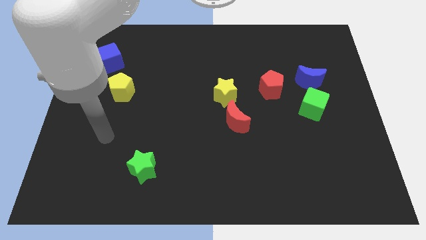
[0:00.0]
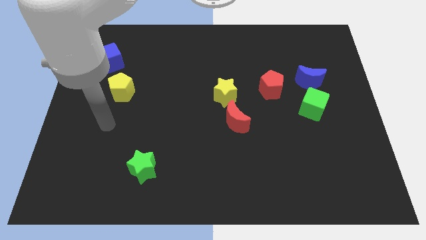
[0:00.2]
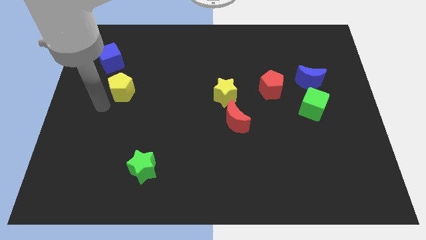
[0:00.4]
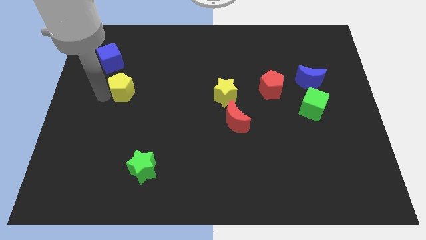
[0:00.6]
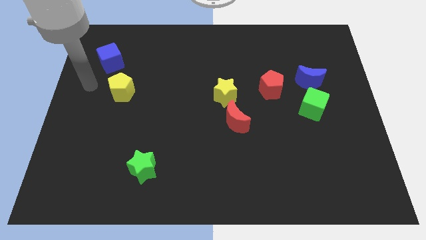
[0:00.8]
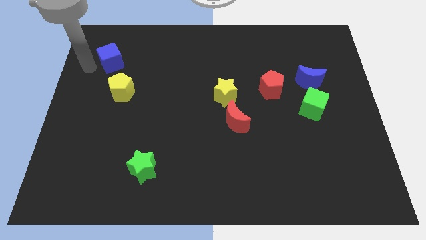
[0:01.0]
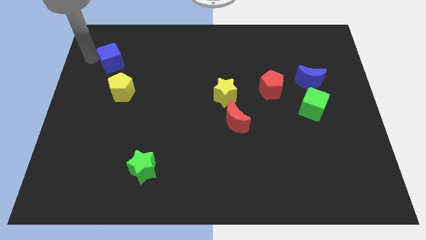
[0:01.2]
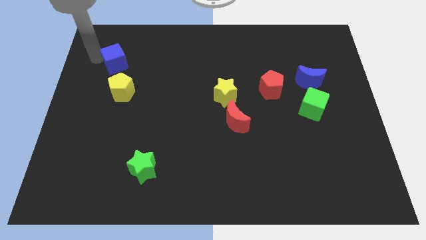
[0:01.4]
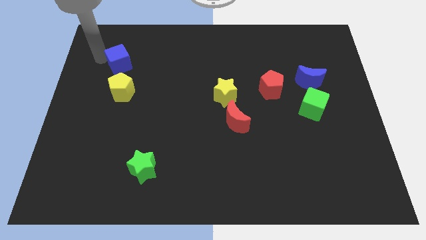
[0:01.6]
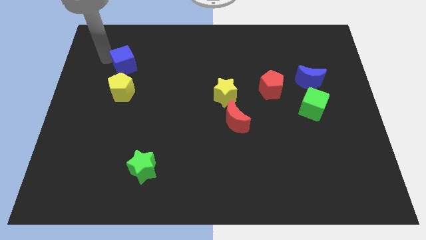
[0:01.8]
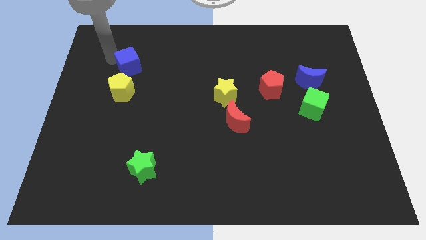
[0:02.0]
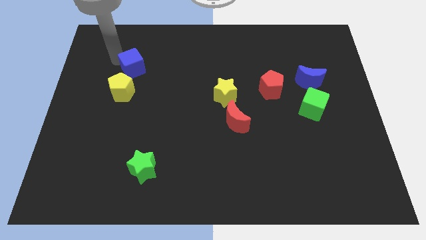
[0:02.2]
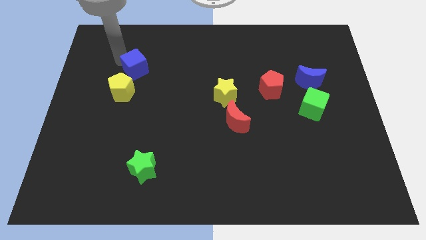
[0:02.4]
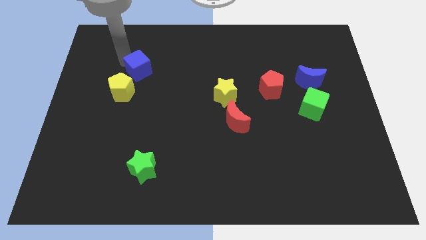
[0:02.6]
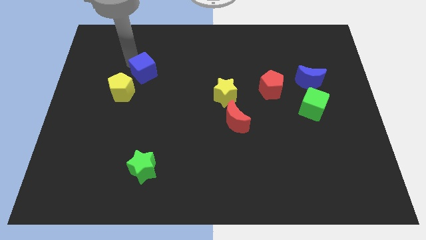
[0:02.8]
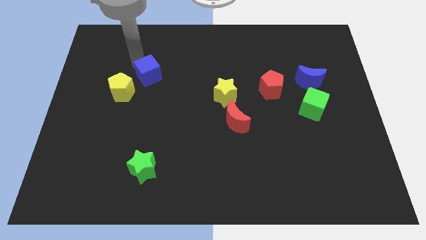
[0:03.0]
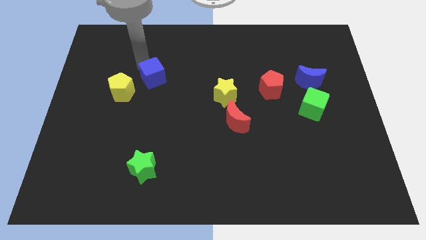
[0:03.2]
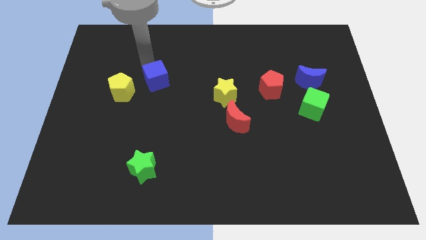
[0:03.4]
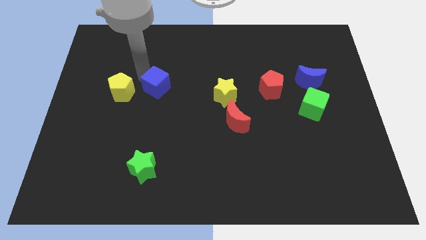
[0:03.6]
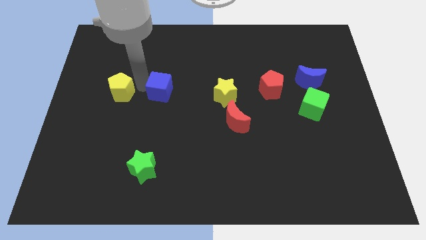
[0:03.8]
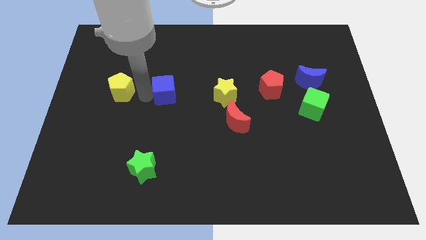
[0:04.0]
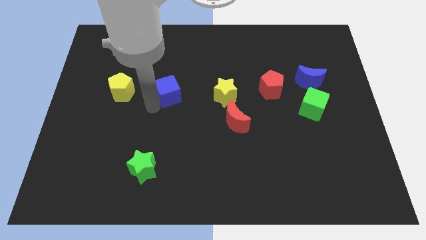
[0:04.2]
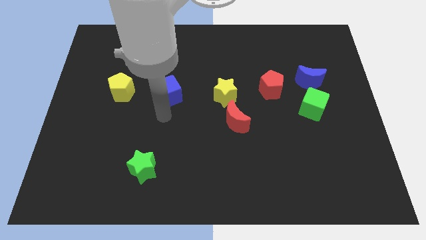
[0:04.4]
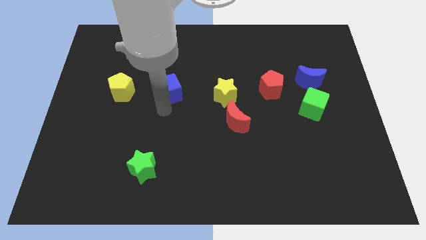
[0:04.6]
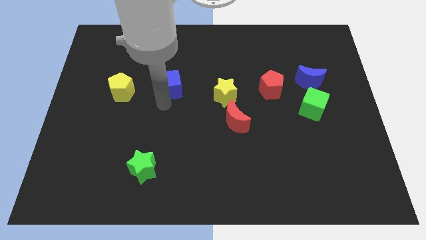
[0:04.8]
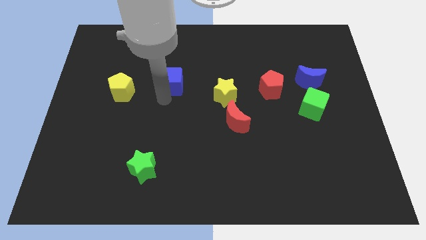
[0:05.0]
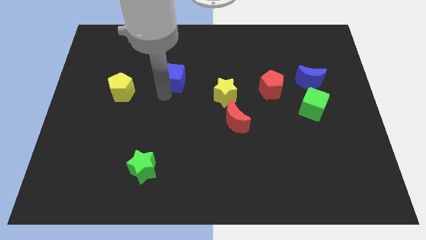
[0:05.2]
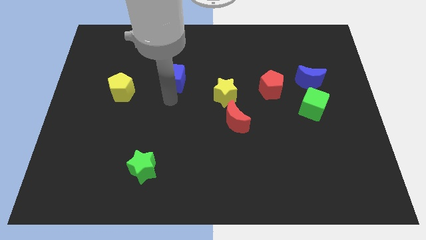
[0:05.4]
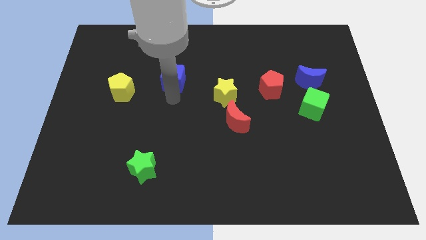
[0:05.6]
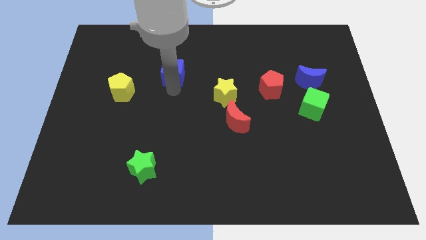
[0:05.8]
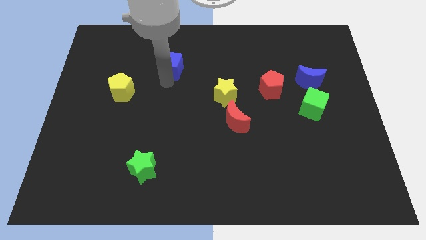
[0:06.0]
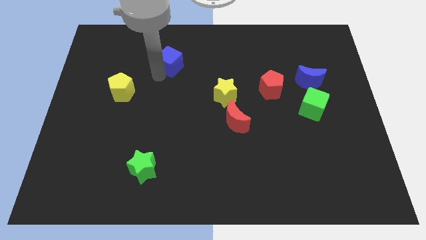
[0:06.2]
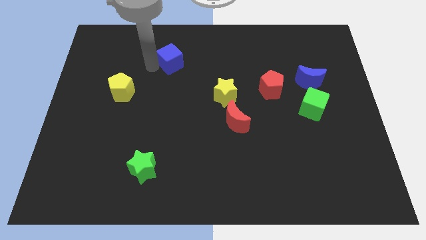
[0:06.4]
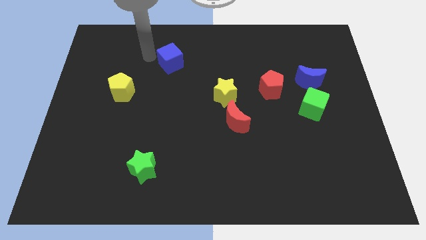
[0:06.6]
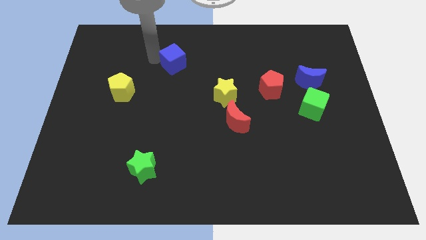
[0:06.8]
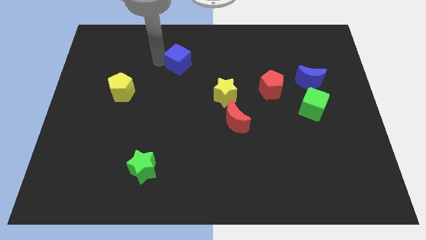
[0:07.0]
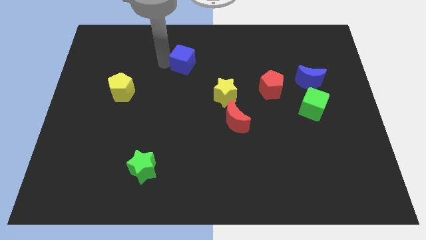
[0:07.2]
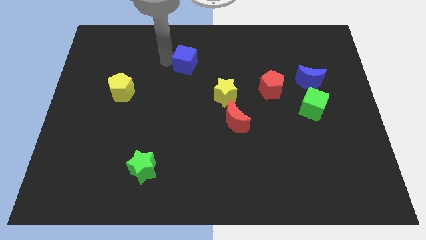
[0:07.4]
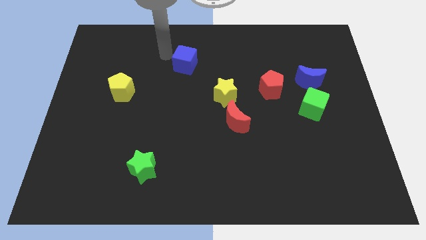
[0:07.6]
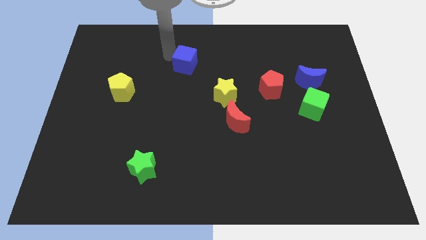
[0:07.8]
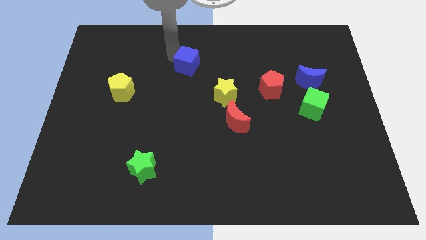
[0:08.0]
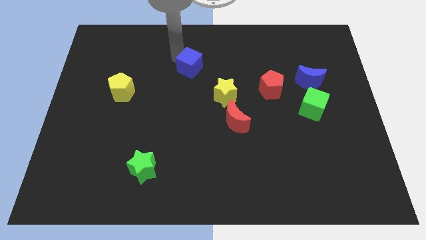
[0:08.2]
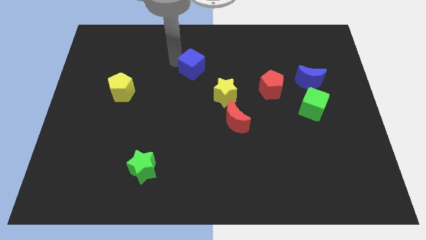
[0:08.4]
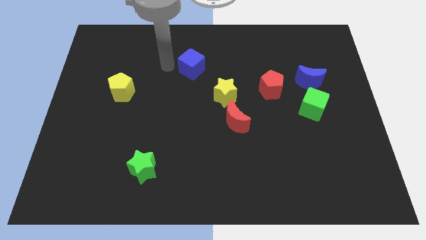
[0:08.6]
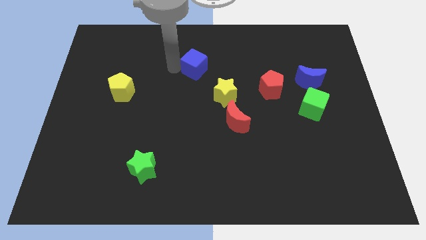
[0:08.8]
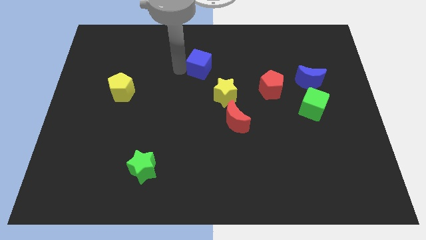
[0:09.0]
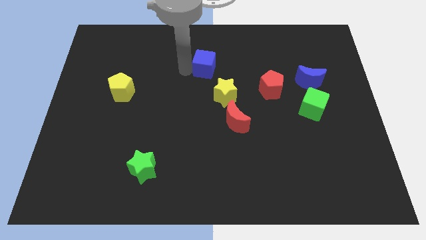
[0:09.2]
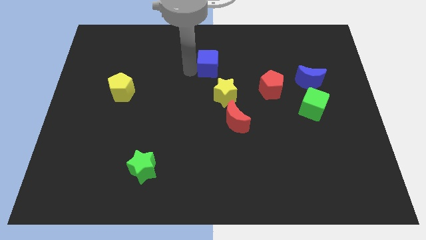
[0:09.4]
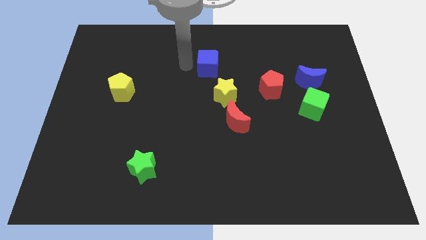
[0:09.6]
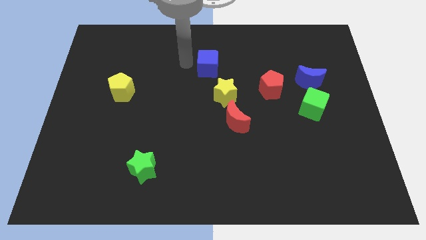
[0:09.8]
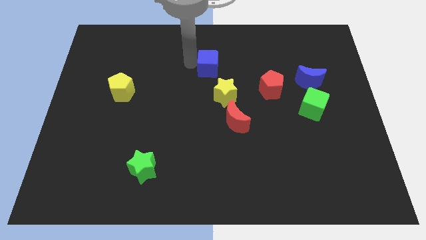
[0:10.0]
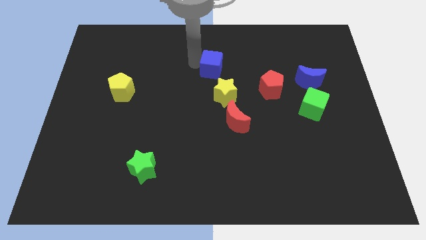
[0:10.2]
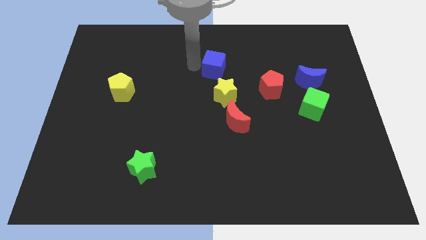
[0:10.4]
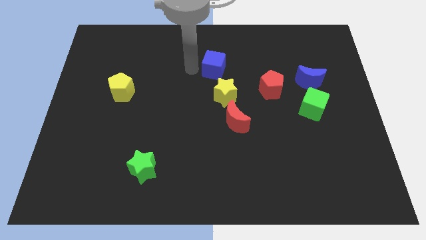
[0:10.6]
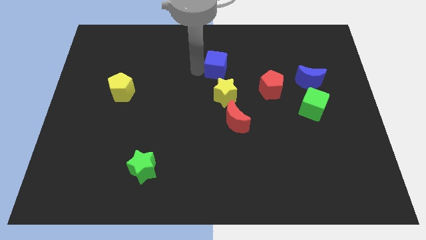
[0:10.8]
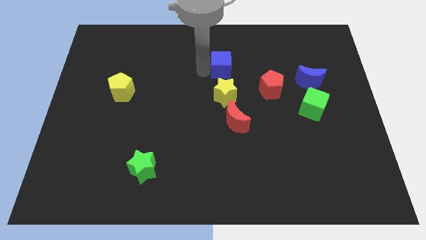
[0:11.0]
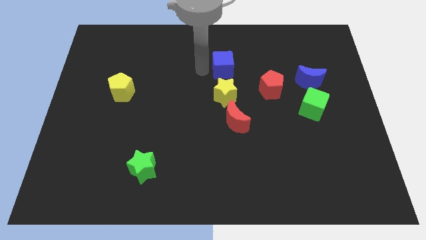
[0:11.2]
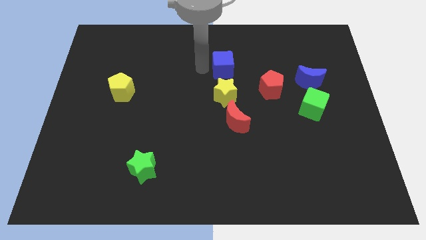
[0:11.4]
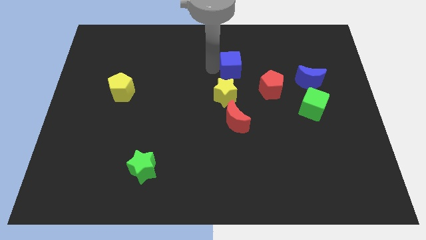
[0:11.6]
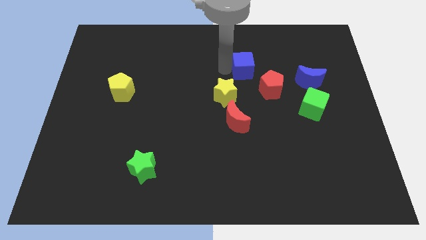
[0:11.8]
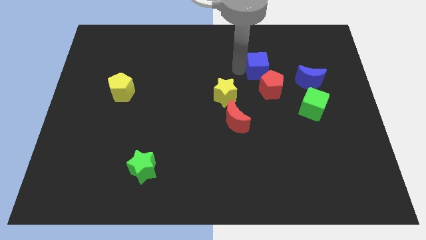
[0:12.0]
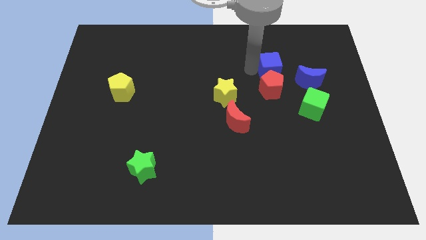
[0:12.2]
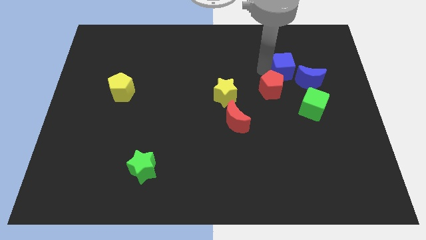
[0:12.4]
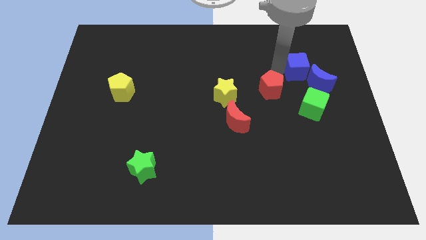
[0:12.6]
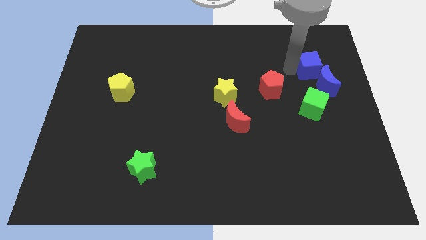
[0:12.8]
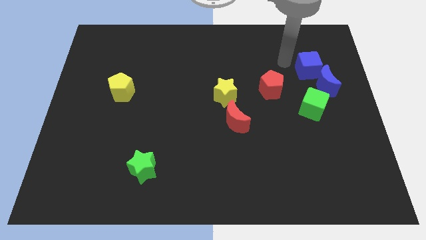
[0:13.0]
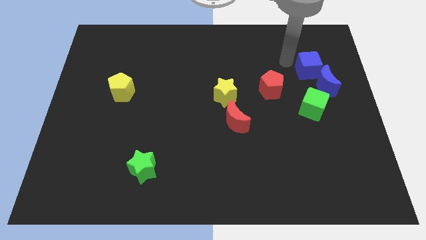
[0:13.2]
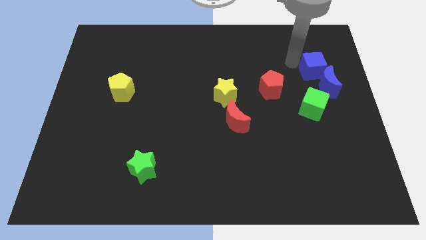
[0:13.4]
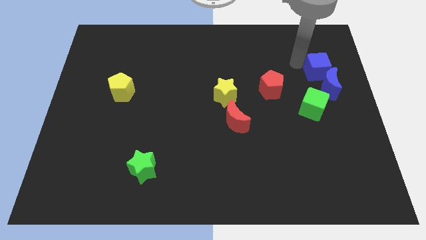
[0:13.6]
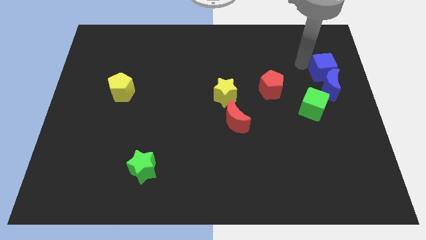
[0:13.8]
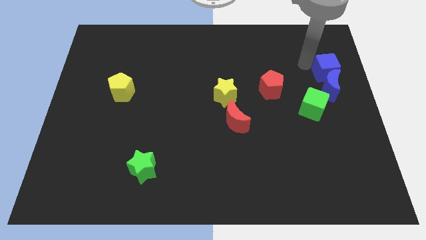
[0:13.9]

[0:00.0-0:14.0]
push the blue cube to the right side of the board
